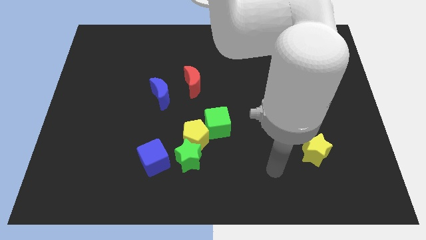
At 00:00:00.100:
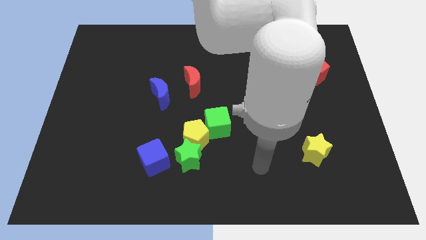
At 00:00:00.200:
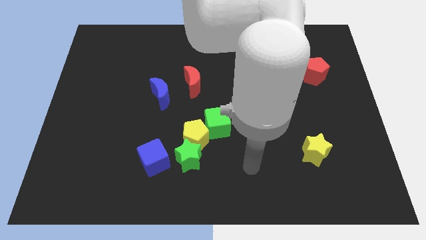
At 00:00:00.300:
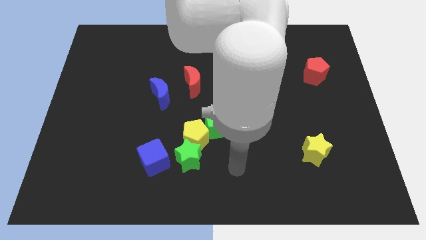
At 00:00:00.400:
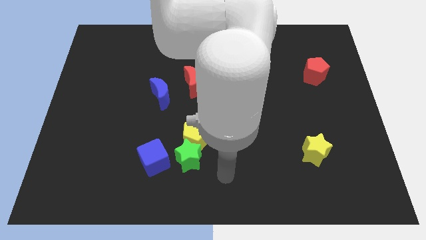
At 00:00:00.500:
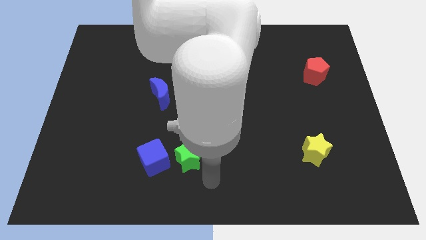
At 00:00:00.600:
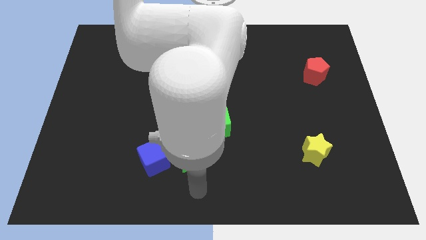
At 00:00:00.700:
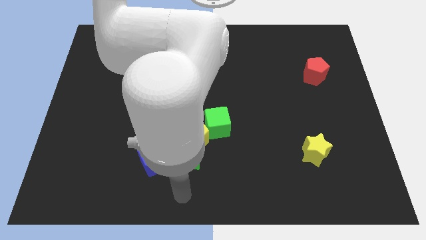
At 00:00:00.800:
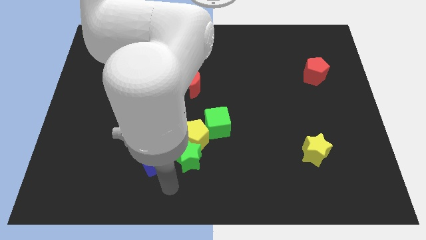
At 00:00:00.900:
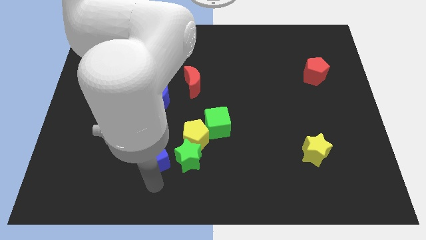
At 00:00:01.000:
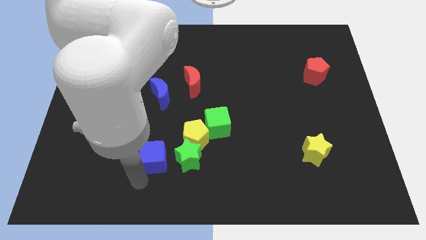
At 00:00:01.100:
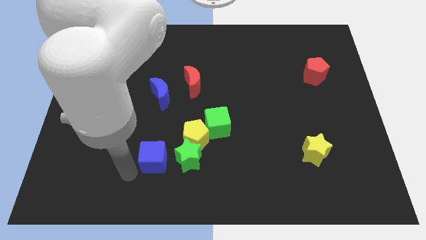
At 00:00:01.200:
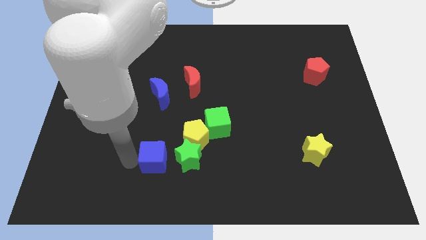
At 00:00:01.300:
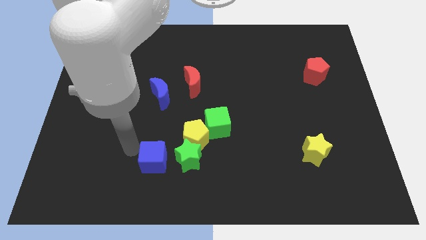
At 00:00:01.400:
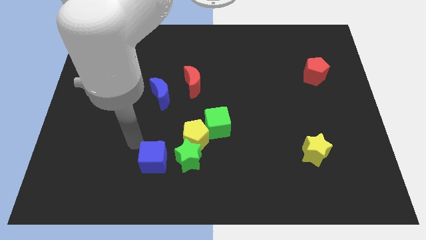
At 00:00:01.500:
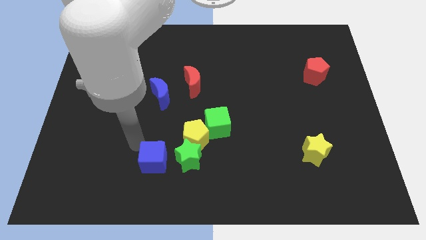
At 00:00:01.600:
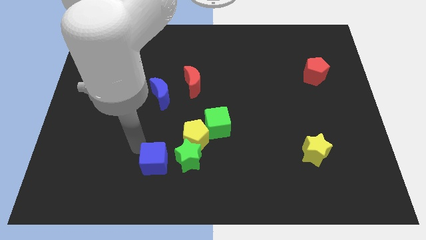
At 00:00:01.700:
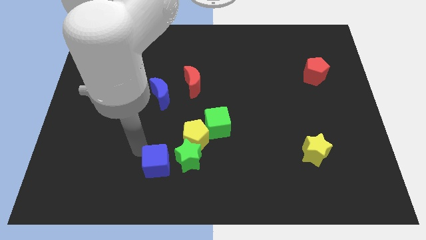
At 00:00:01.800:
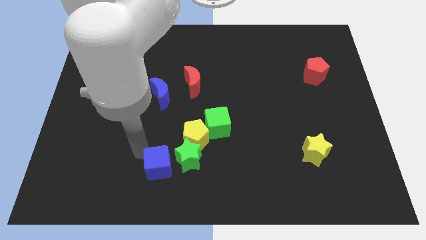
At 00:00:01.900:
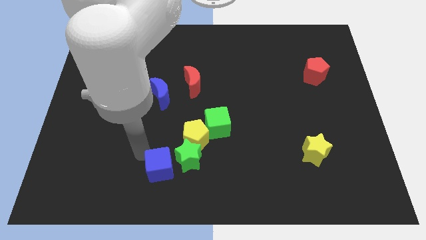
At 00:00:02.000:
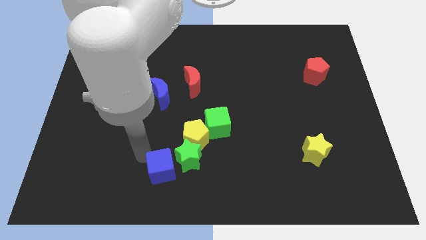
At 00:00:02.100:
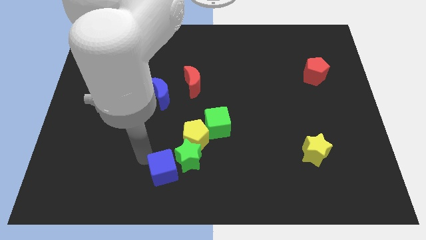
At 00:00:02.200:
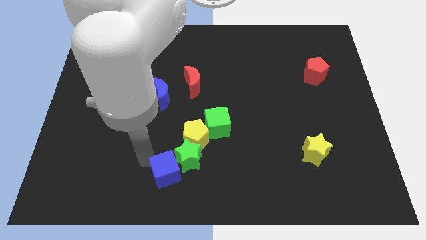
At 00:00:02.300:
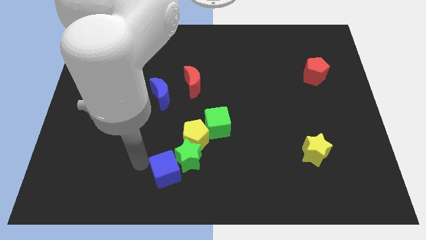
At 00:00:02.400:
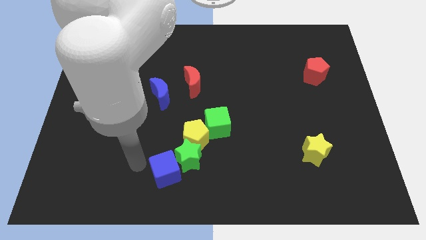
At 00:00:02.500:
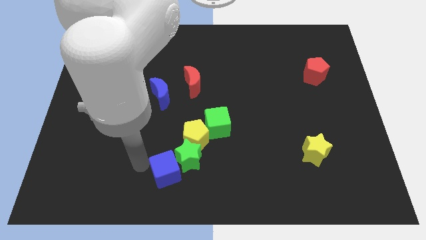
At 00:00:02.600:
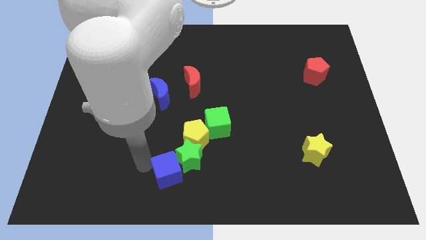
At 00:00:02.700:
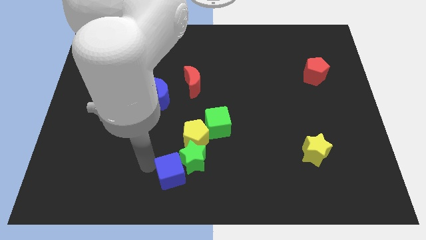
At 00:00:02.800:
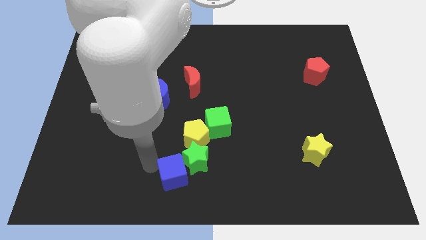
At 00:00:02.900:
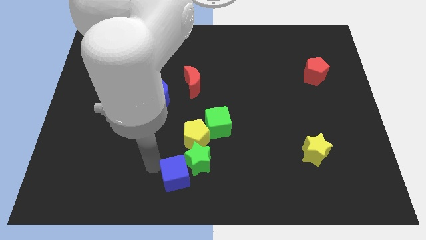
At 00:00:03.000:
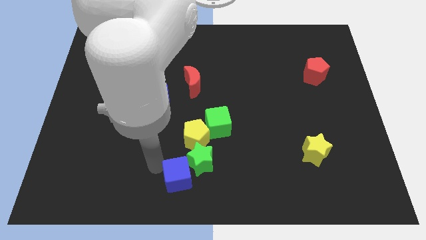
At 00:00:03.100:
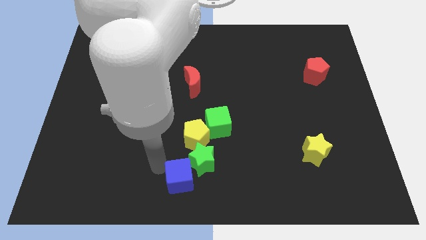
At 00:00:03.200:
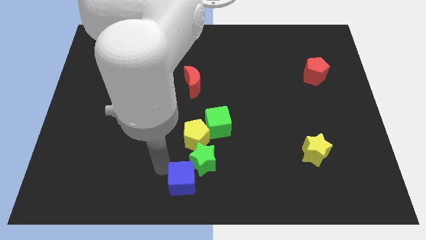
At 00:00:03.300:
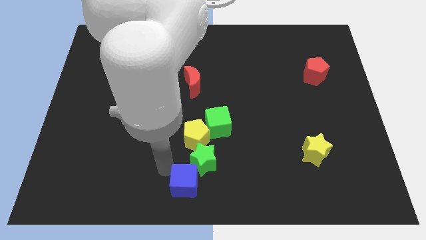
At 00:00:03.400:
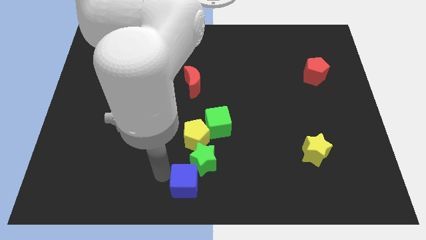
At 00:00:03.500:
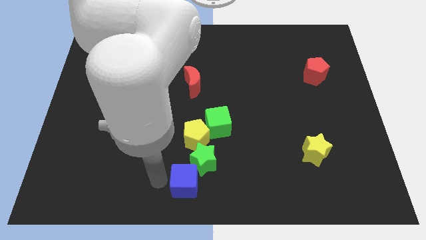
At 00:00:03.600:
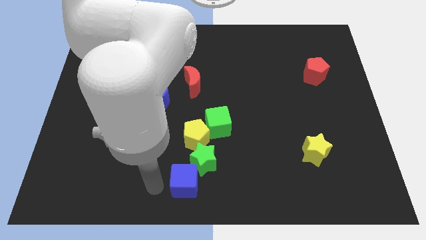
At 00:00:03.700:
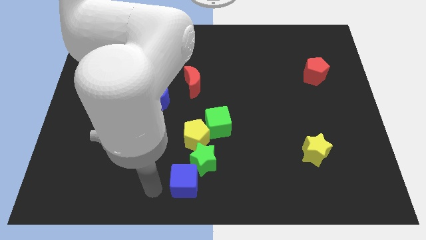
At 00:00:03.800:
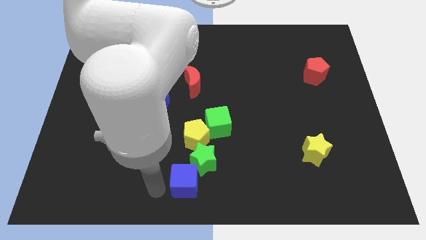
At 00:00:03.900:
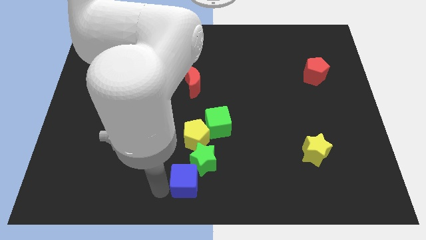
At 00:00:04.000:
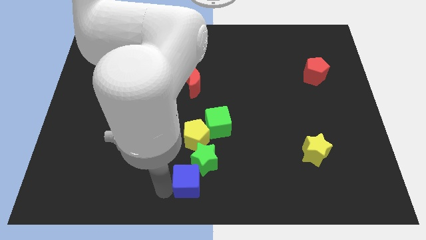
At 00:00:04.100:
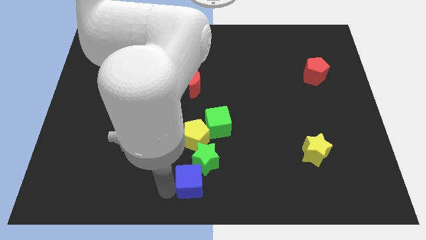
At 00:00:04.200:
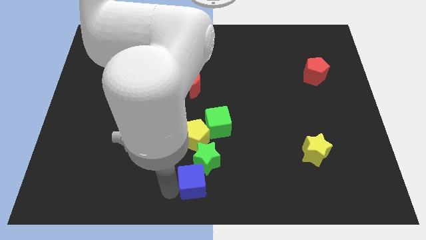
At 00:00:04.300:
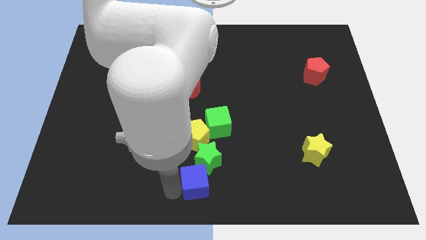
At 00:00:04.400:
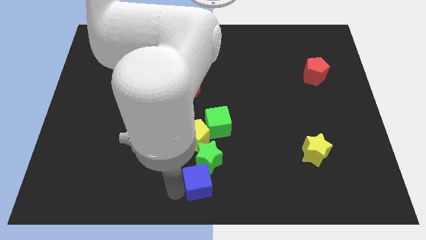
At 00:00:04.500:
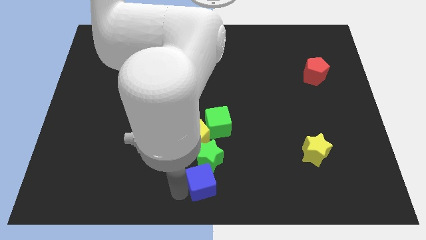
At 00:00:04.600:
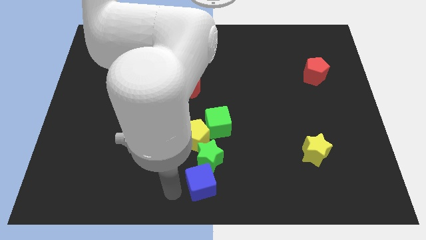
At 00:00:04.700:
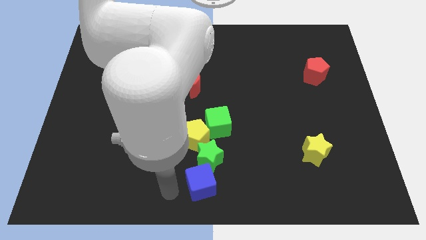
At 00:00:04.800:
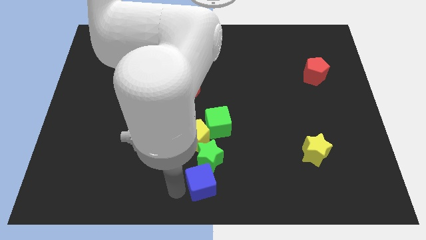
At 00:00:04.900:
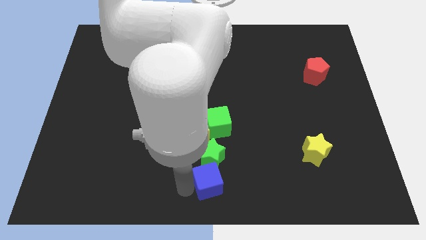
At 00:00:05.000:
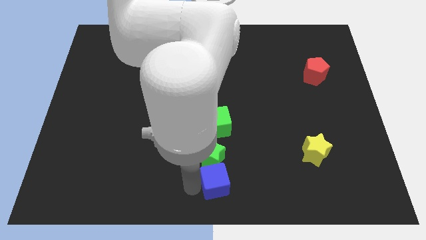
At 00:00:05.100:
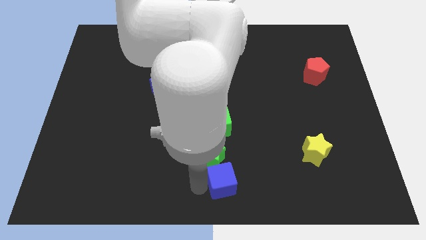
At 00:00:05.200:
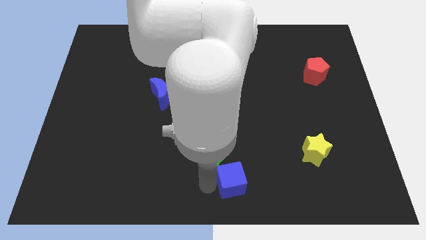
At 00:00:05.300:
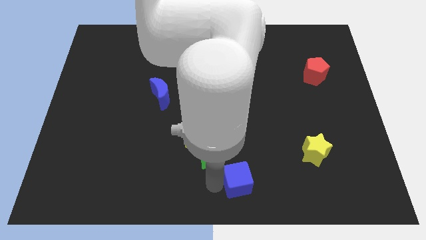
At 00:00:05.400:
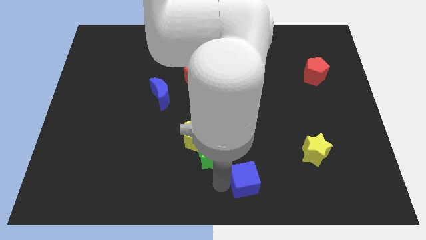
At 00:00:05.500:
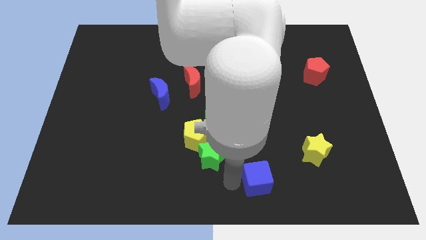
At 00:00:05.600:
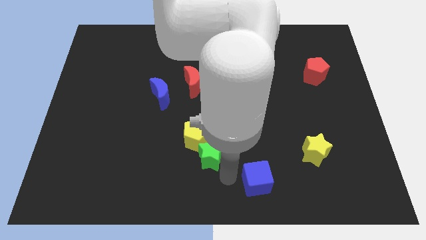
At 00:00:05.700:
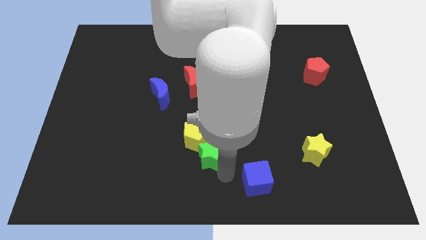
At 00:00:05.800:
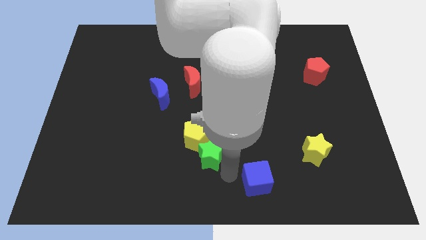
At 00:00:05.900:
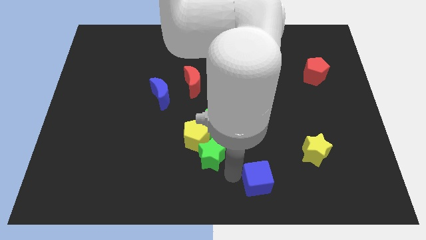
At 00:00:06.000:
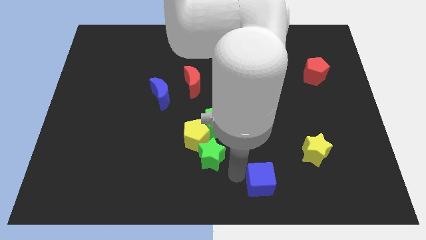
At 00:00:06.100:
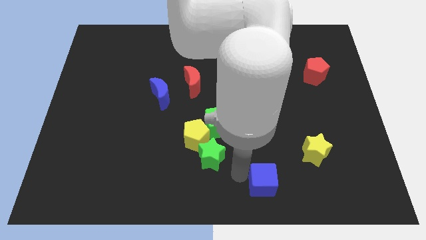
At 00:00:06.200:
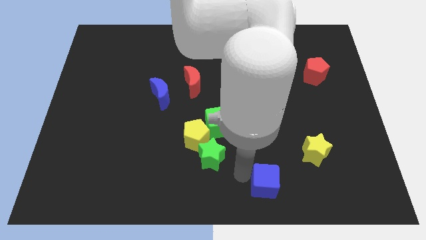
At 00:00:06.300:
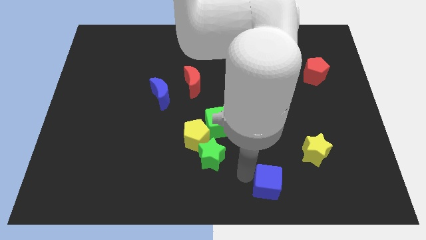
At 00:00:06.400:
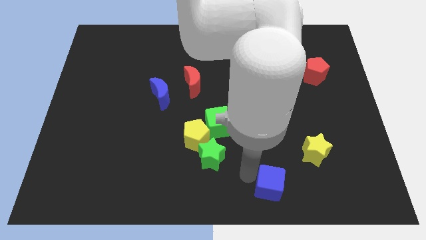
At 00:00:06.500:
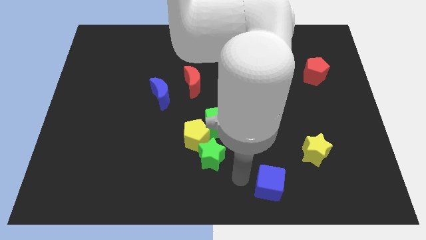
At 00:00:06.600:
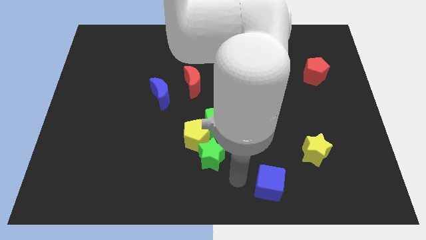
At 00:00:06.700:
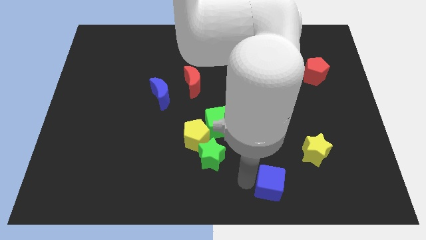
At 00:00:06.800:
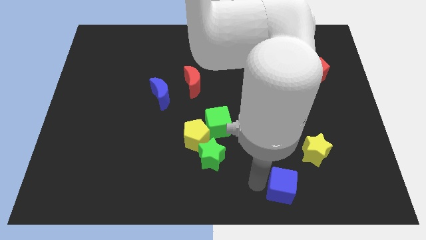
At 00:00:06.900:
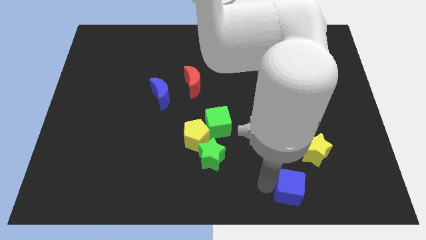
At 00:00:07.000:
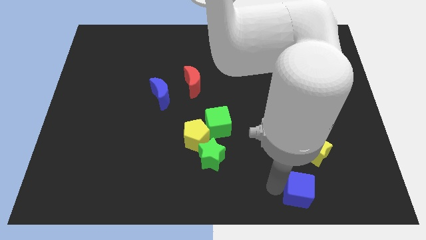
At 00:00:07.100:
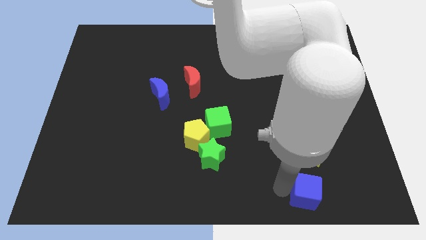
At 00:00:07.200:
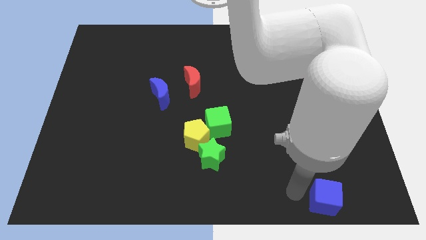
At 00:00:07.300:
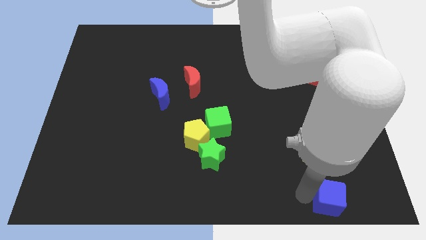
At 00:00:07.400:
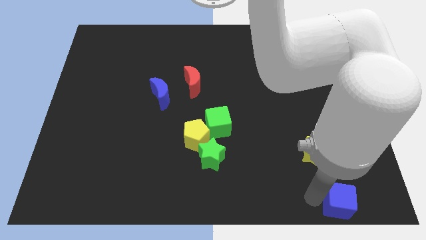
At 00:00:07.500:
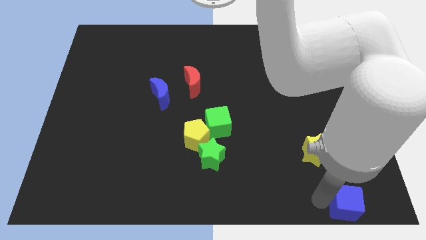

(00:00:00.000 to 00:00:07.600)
put the blue cube to the bottom right of the board
